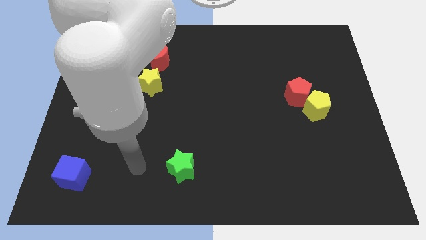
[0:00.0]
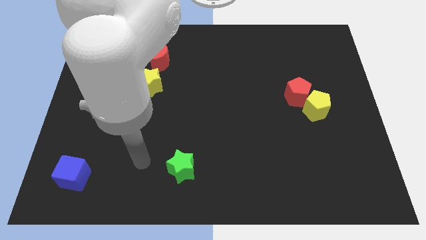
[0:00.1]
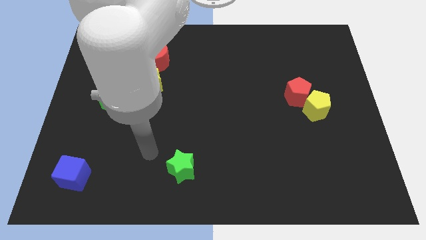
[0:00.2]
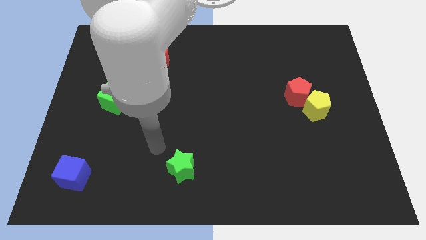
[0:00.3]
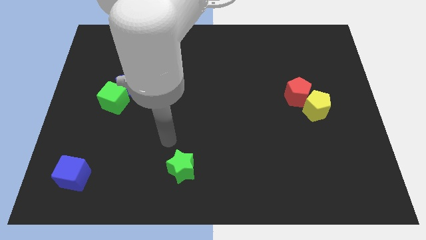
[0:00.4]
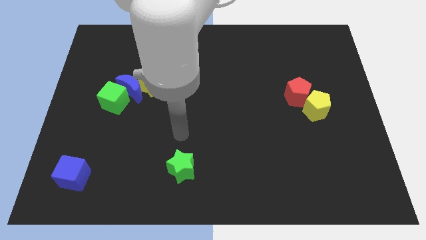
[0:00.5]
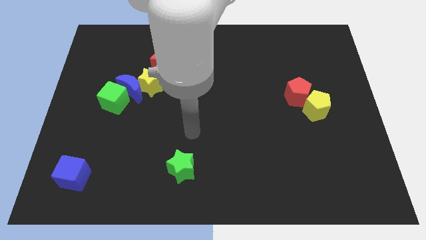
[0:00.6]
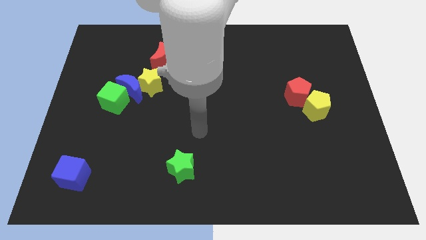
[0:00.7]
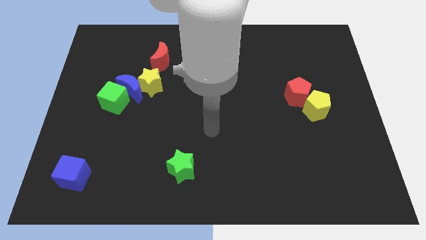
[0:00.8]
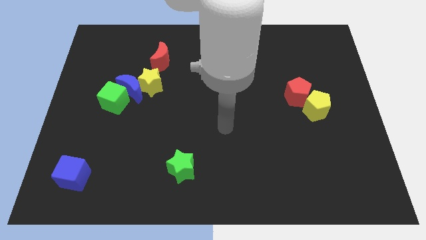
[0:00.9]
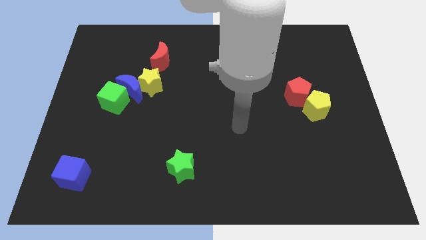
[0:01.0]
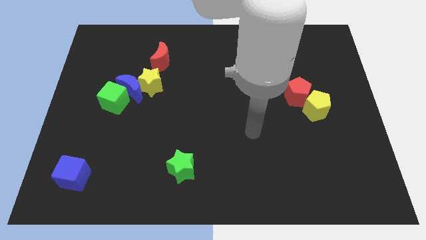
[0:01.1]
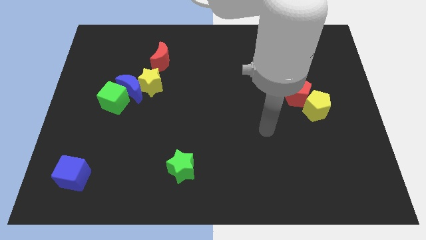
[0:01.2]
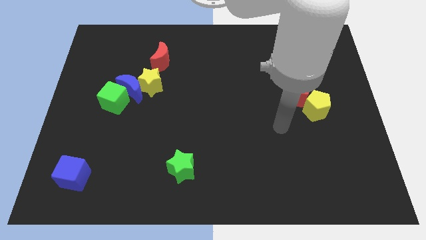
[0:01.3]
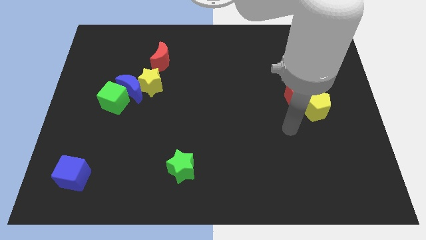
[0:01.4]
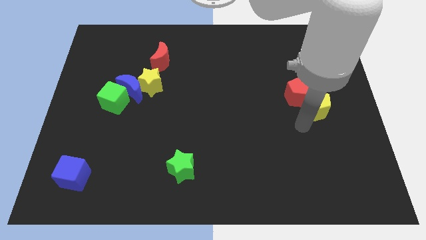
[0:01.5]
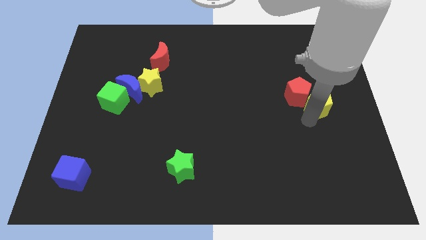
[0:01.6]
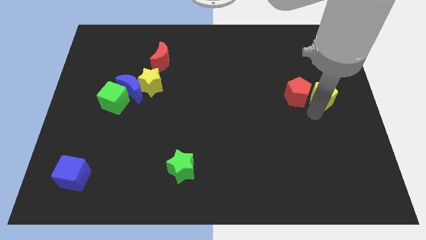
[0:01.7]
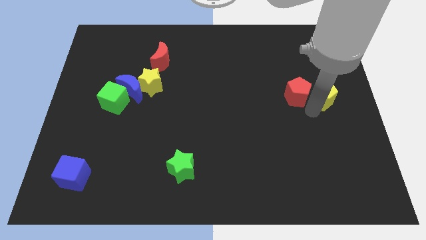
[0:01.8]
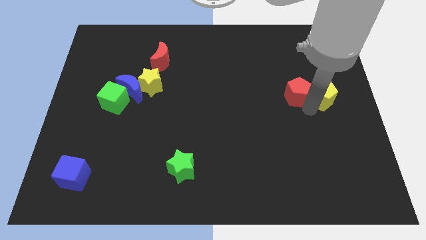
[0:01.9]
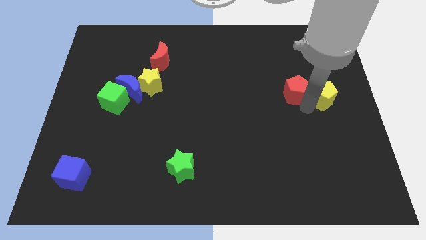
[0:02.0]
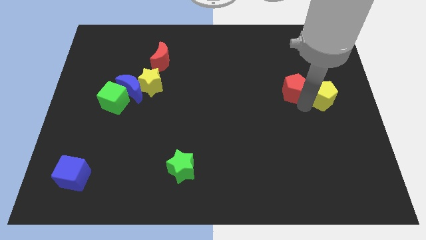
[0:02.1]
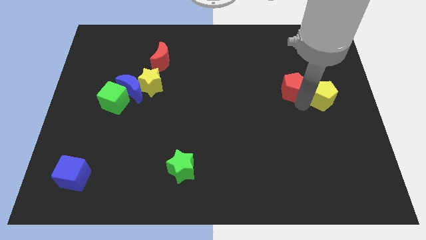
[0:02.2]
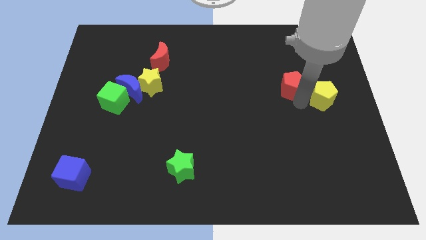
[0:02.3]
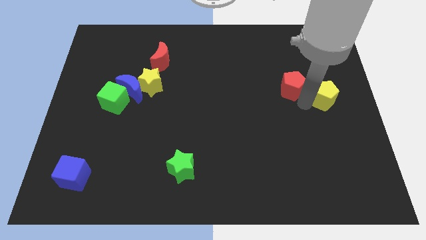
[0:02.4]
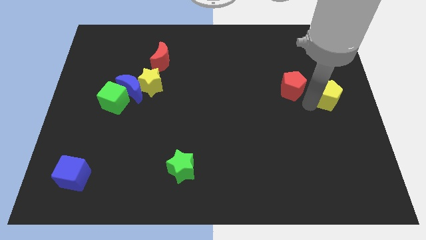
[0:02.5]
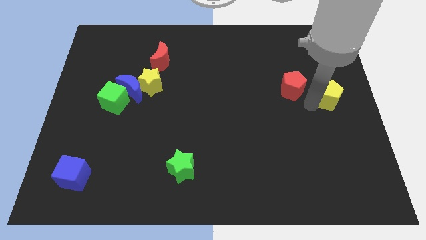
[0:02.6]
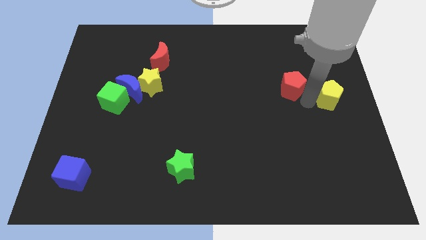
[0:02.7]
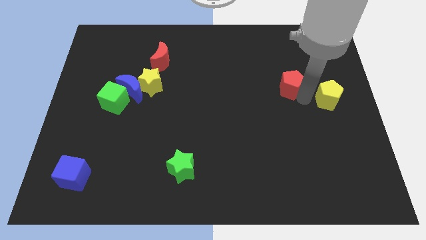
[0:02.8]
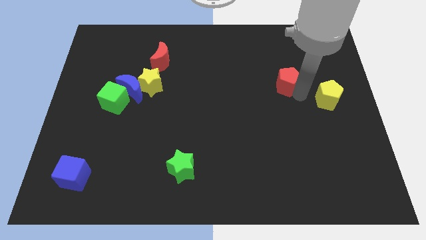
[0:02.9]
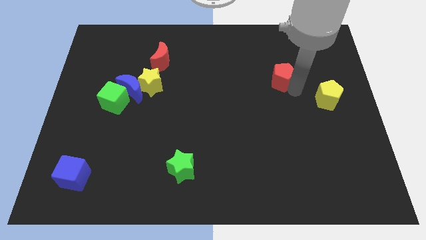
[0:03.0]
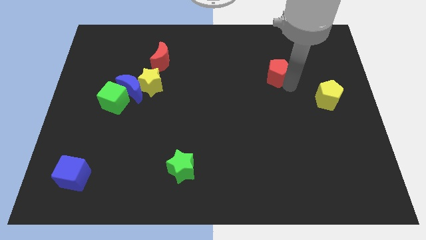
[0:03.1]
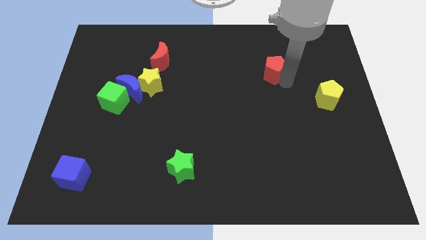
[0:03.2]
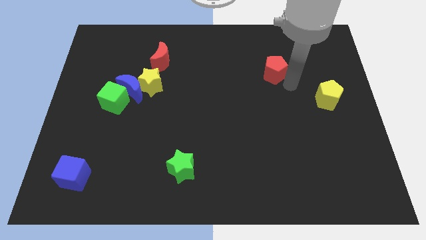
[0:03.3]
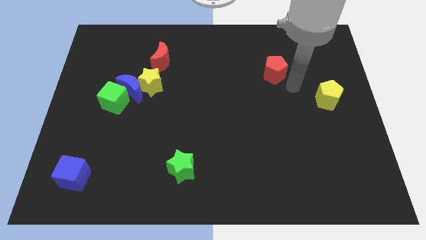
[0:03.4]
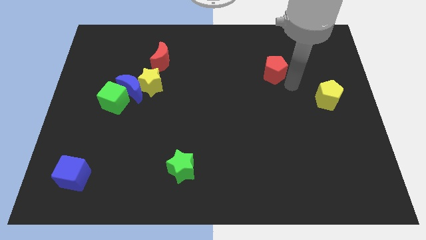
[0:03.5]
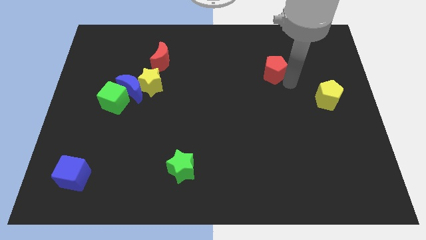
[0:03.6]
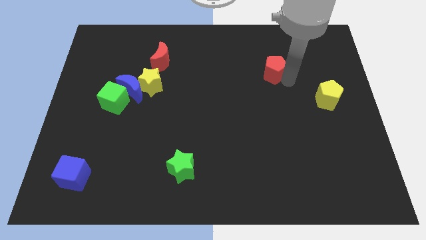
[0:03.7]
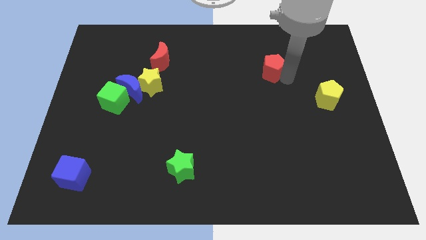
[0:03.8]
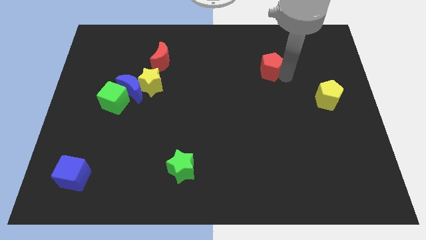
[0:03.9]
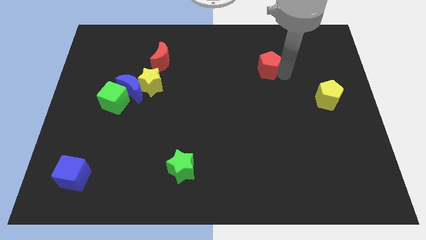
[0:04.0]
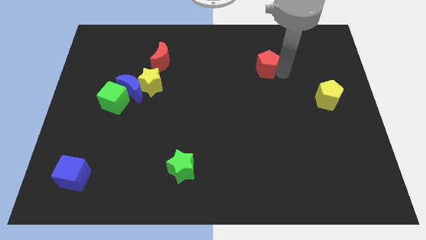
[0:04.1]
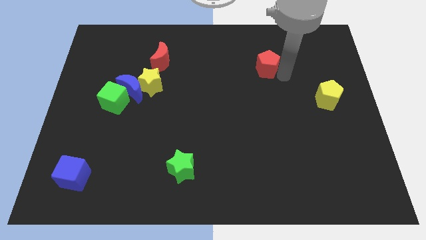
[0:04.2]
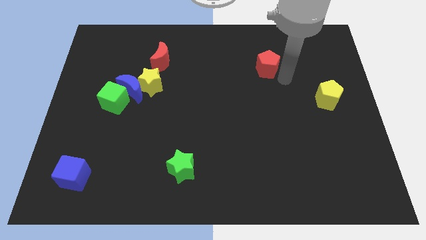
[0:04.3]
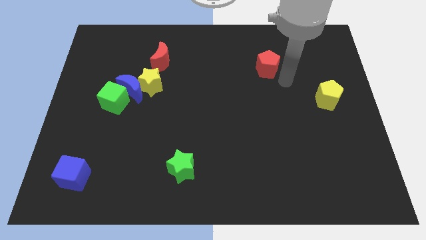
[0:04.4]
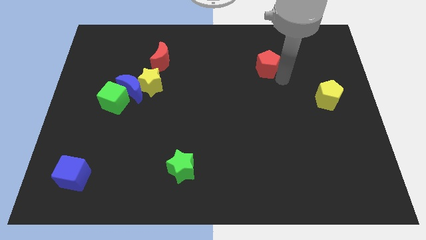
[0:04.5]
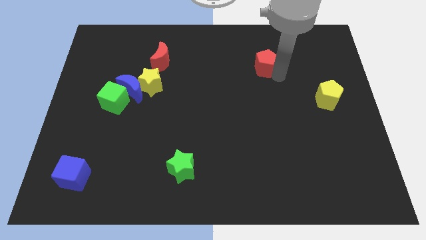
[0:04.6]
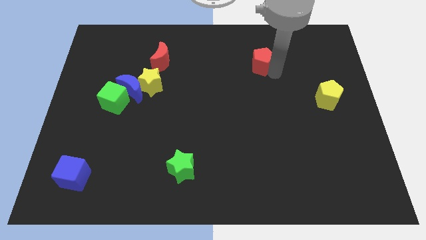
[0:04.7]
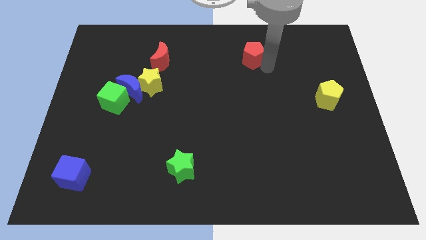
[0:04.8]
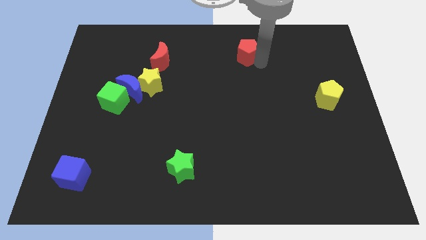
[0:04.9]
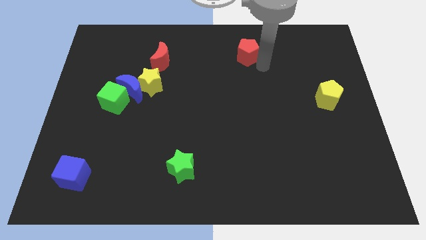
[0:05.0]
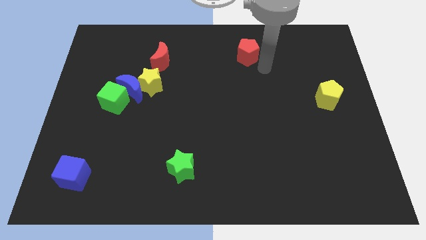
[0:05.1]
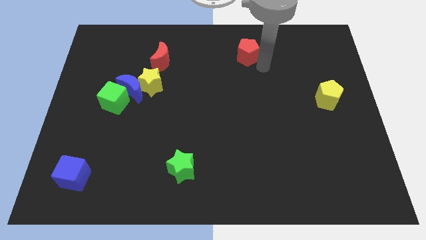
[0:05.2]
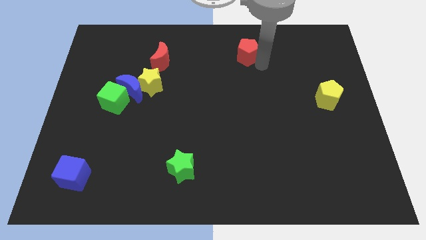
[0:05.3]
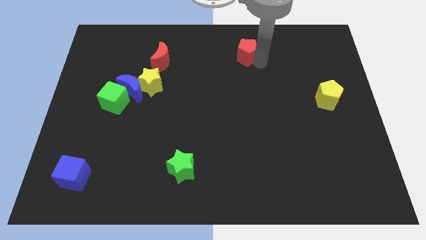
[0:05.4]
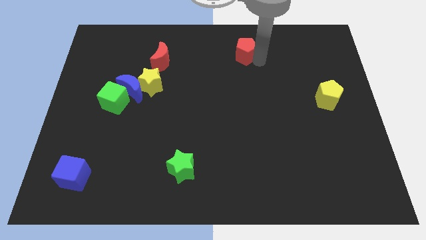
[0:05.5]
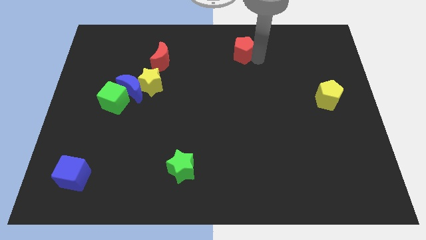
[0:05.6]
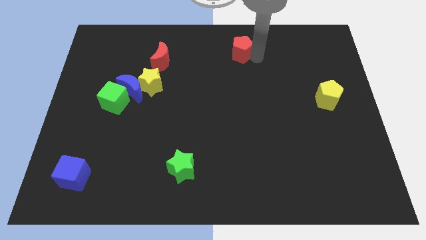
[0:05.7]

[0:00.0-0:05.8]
slide the red pentagon to the top

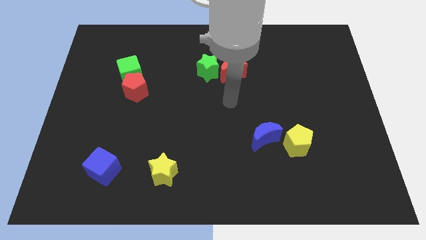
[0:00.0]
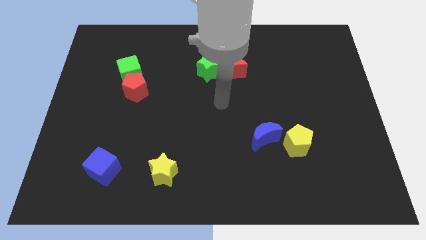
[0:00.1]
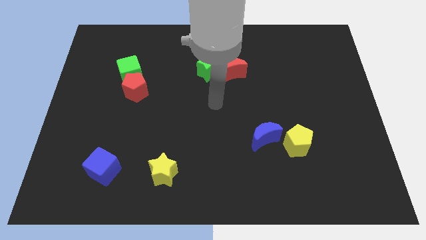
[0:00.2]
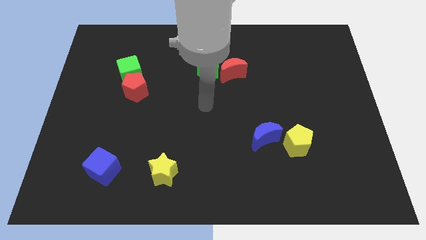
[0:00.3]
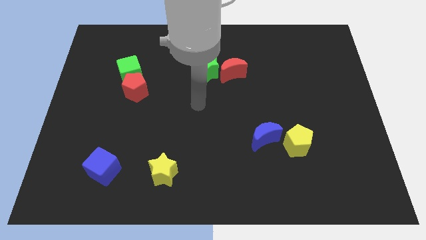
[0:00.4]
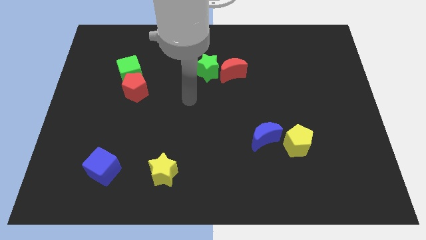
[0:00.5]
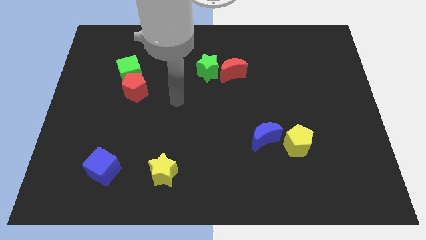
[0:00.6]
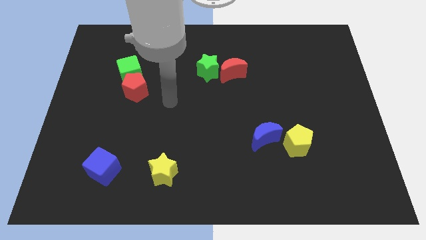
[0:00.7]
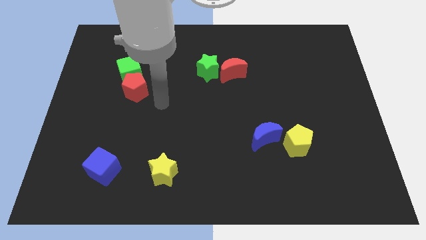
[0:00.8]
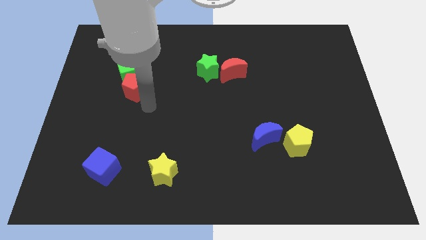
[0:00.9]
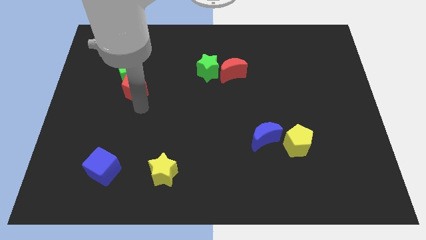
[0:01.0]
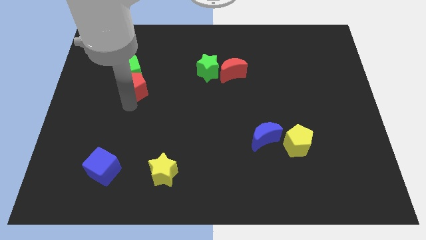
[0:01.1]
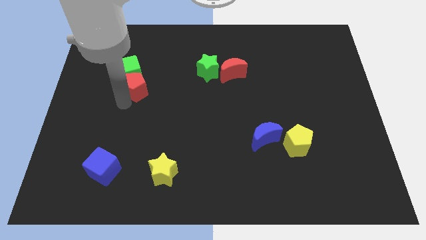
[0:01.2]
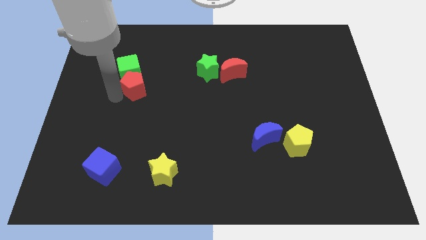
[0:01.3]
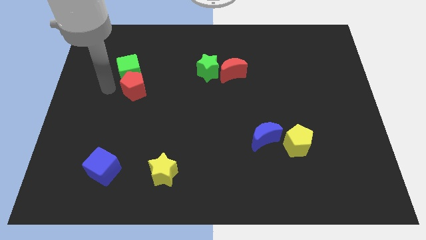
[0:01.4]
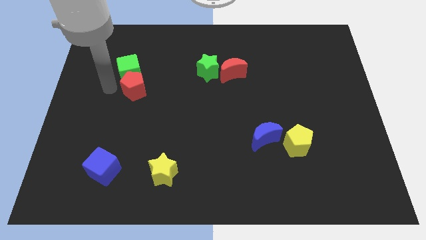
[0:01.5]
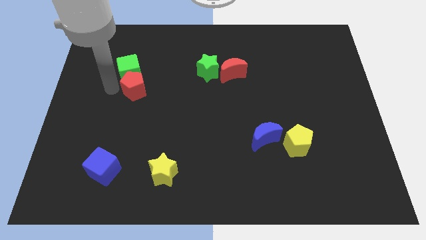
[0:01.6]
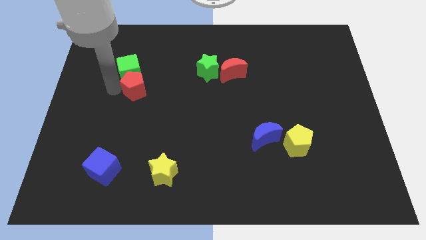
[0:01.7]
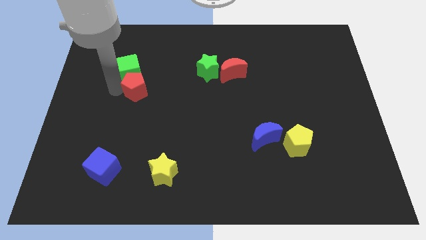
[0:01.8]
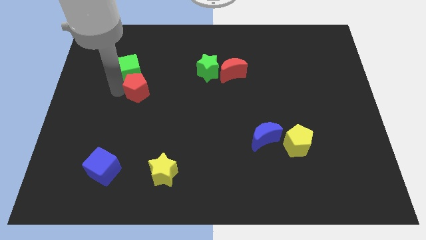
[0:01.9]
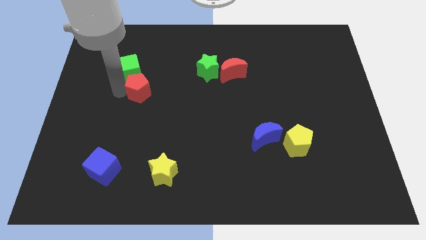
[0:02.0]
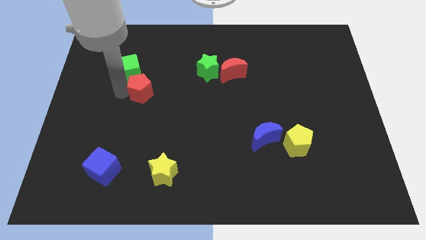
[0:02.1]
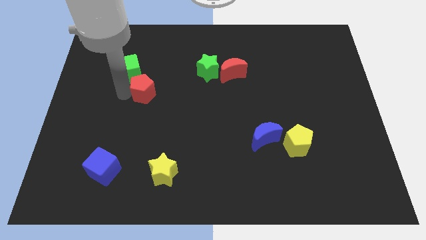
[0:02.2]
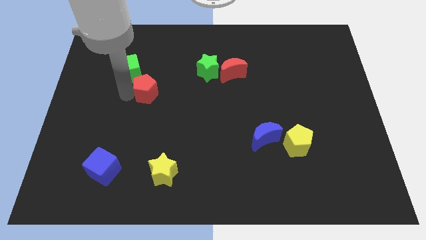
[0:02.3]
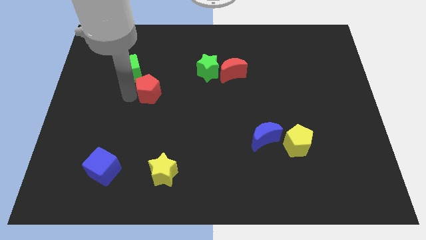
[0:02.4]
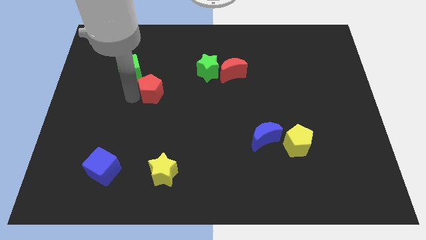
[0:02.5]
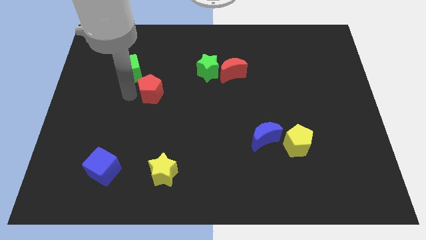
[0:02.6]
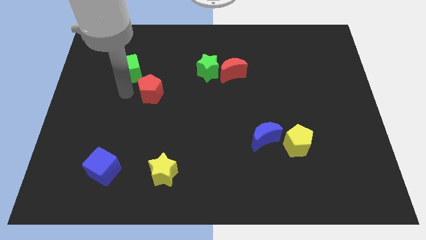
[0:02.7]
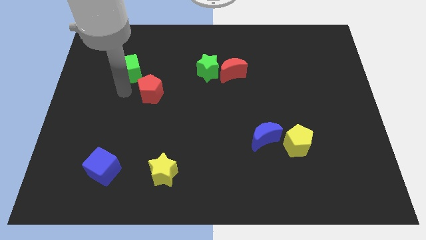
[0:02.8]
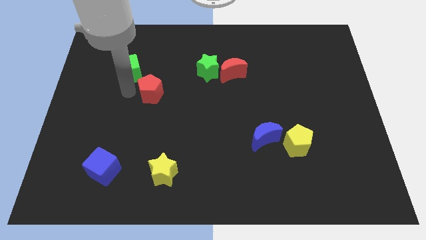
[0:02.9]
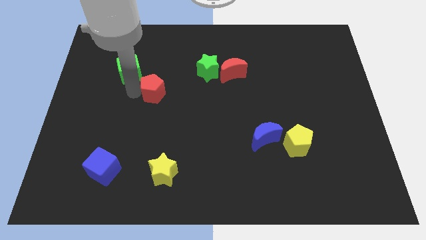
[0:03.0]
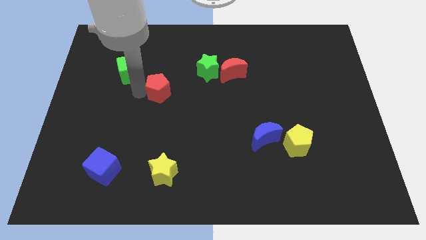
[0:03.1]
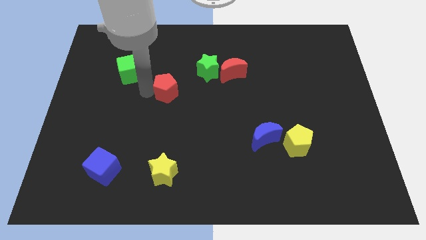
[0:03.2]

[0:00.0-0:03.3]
push the red pentagon to the center of the board
